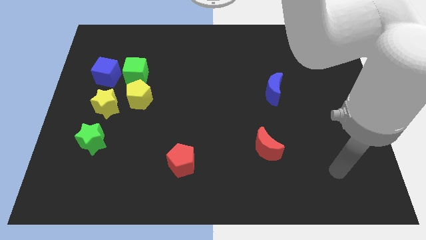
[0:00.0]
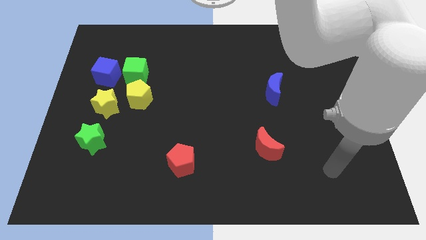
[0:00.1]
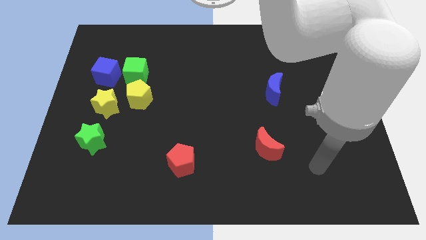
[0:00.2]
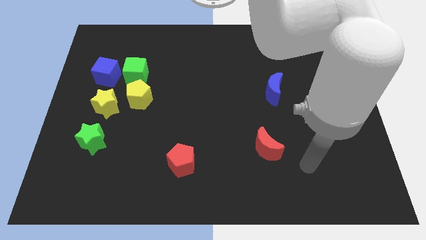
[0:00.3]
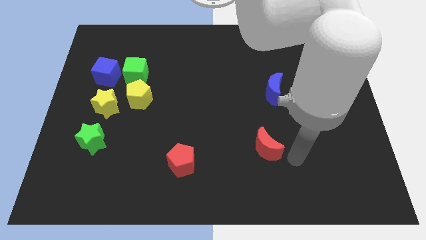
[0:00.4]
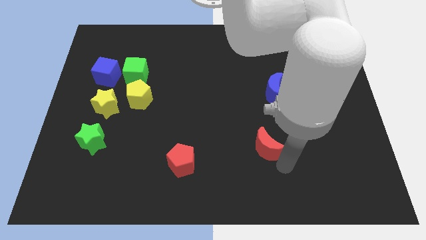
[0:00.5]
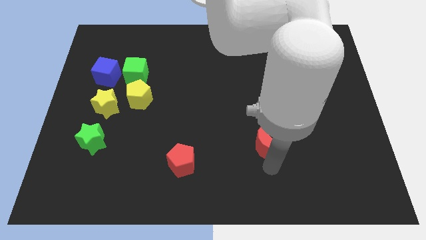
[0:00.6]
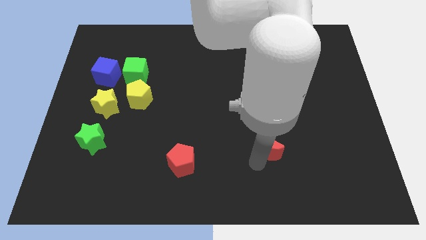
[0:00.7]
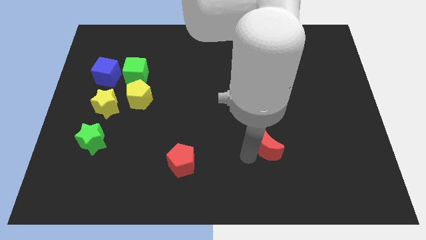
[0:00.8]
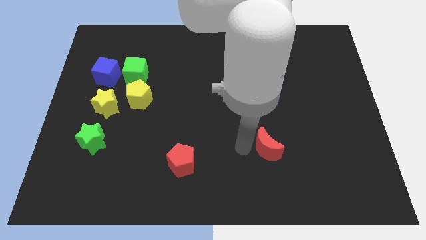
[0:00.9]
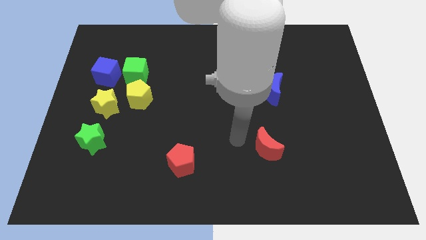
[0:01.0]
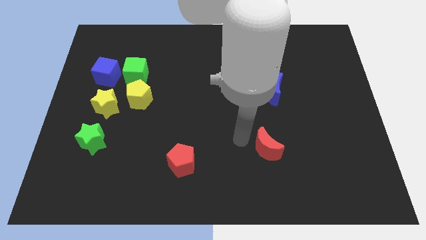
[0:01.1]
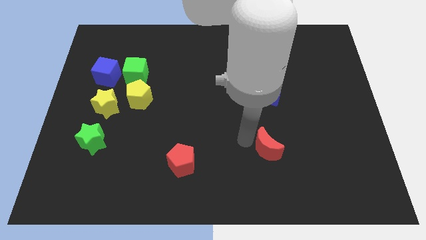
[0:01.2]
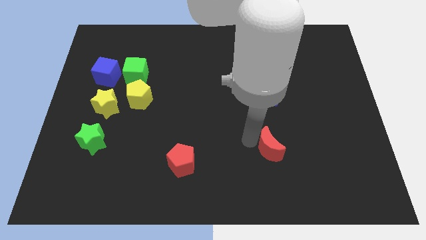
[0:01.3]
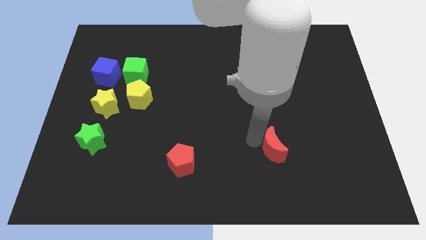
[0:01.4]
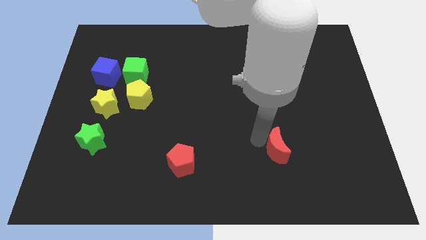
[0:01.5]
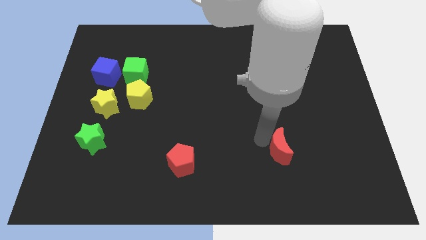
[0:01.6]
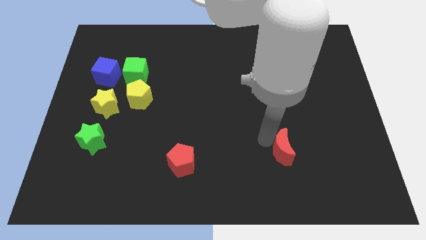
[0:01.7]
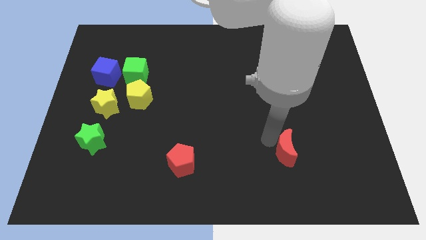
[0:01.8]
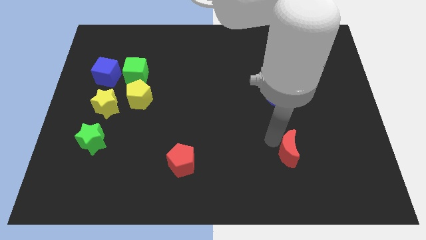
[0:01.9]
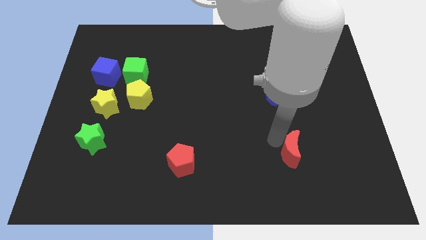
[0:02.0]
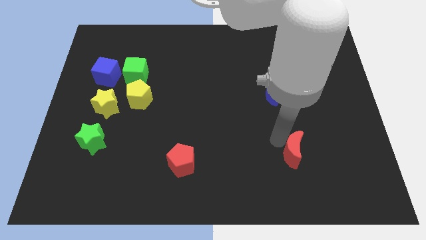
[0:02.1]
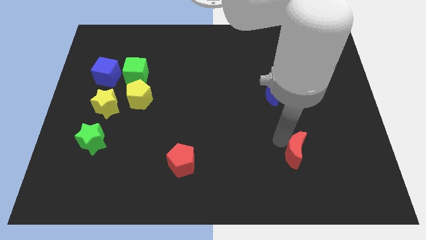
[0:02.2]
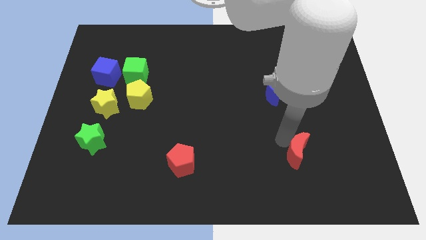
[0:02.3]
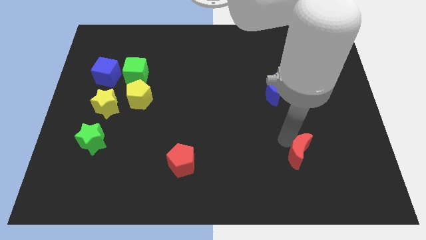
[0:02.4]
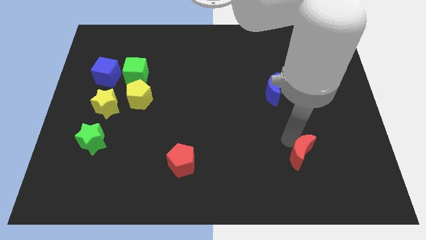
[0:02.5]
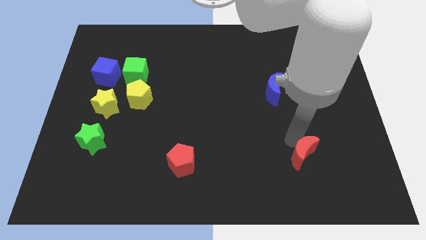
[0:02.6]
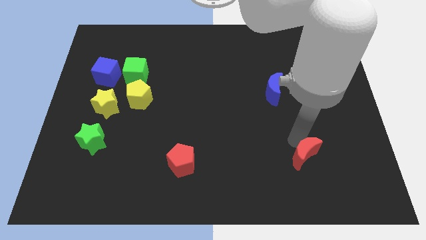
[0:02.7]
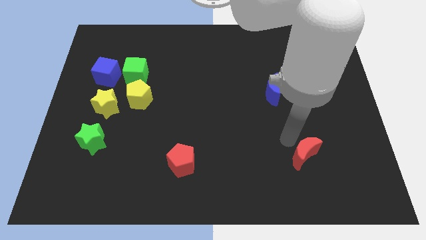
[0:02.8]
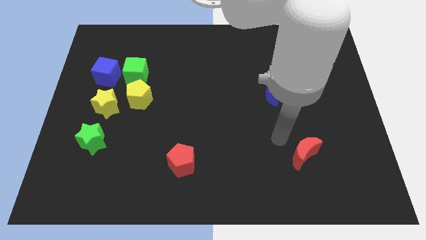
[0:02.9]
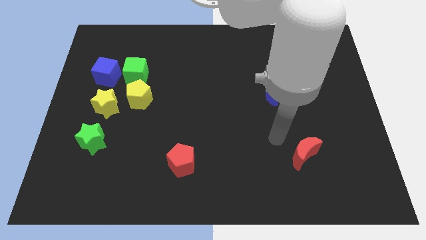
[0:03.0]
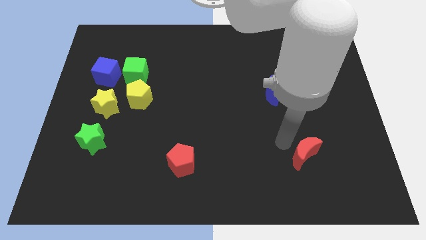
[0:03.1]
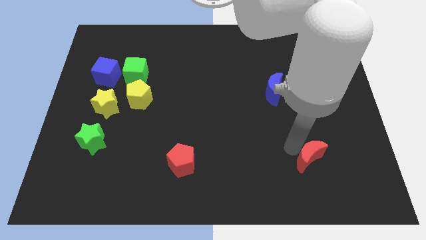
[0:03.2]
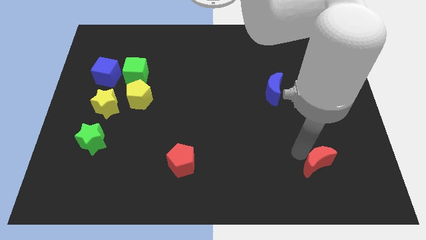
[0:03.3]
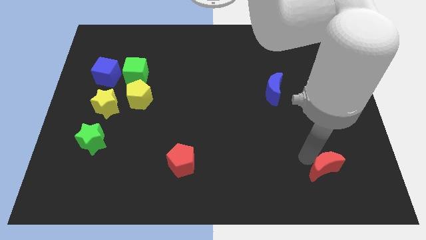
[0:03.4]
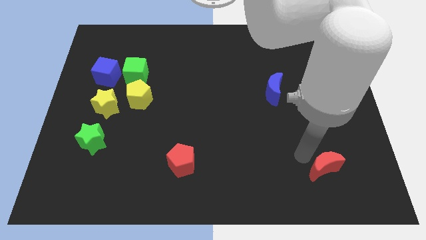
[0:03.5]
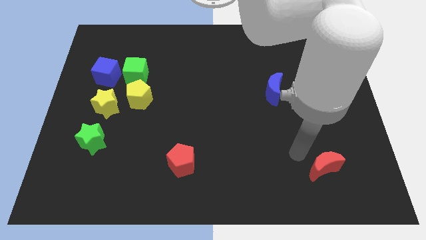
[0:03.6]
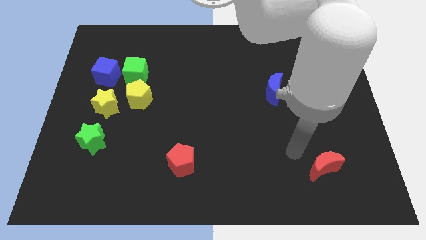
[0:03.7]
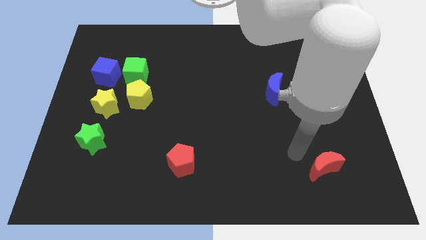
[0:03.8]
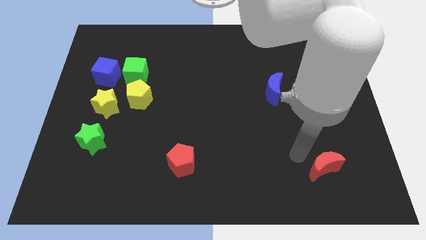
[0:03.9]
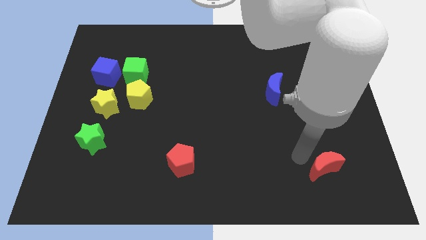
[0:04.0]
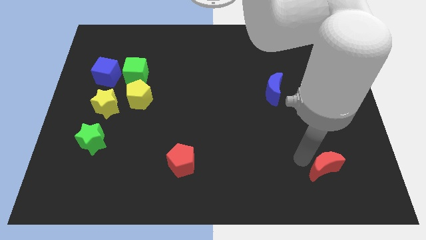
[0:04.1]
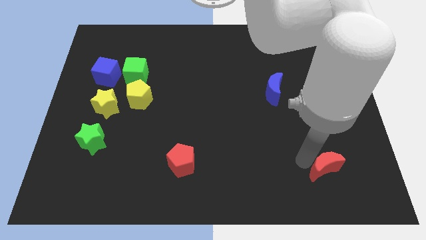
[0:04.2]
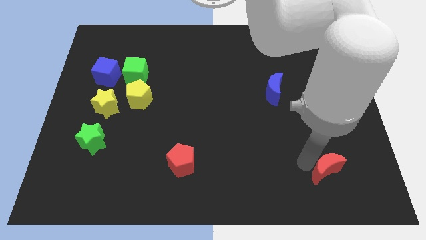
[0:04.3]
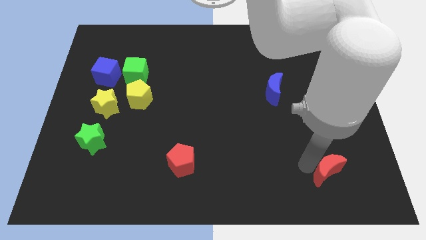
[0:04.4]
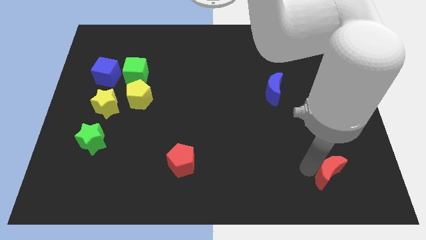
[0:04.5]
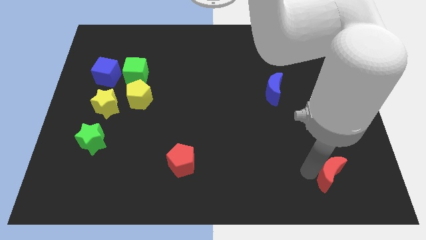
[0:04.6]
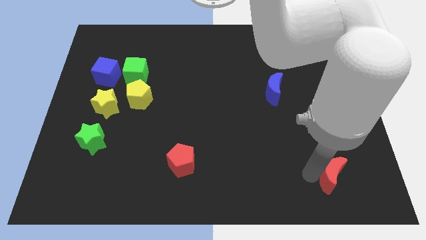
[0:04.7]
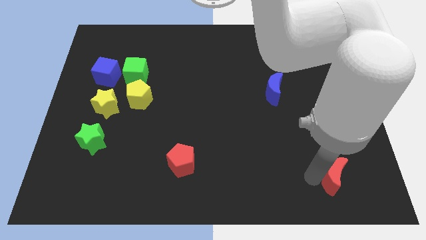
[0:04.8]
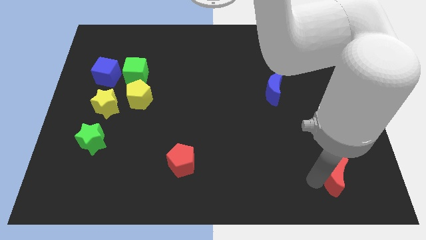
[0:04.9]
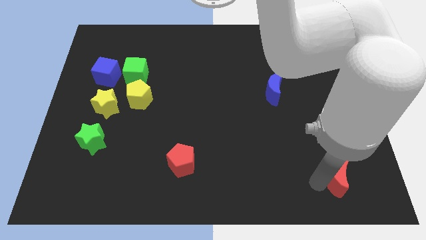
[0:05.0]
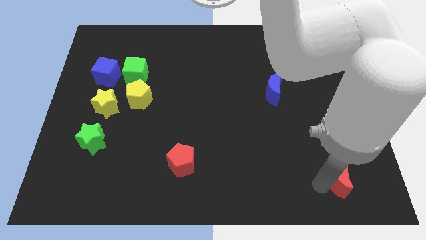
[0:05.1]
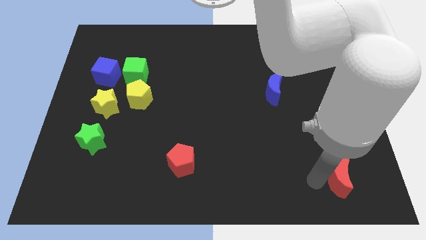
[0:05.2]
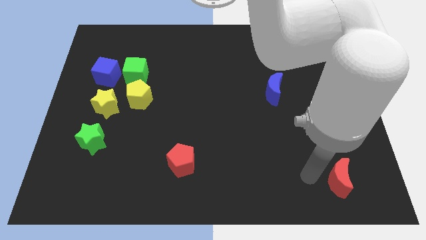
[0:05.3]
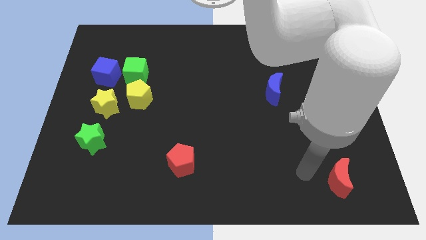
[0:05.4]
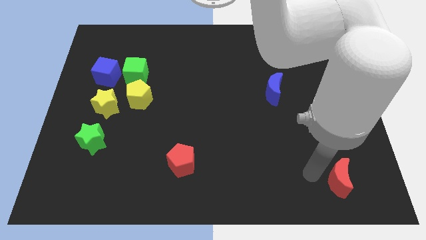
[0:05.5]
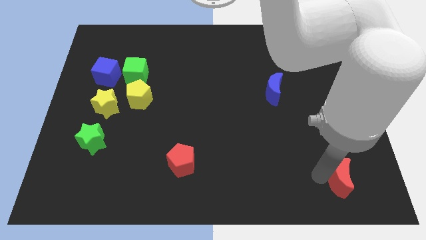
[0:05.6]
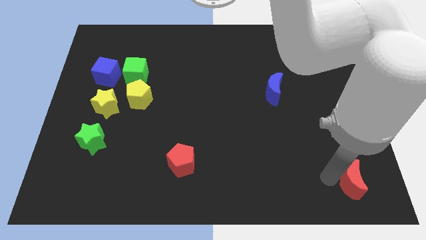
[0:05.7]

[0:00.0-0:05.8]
put the red moon to the bottom right

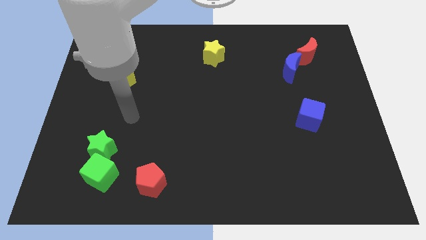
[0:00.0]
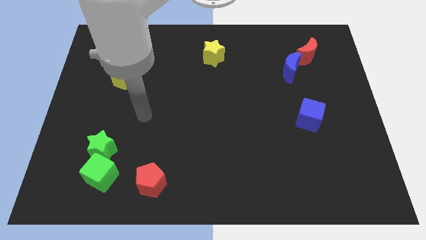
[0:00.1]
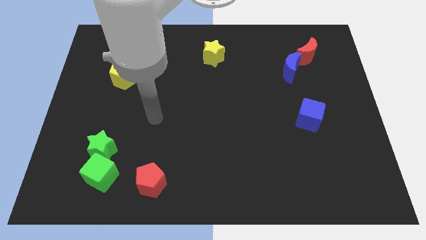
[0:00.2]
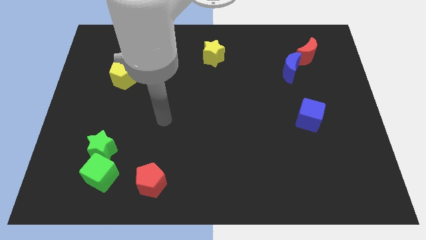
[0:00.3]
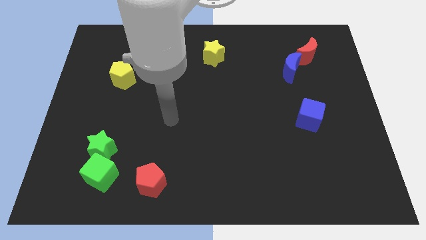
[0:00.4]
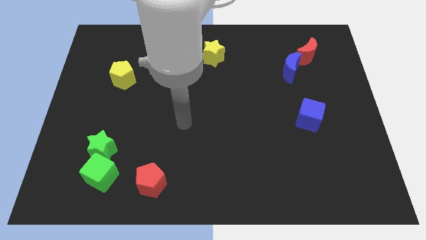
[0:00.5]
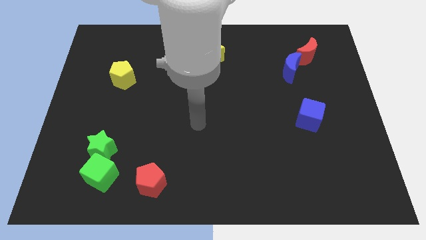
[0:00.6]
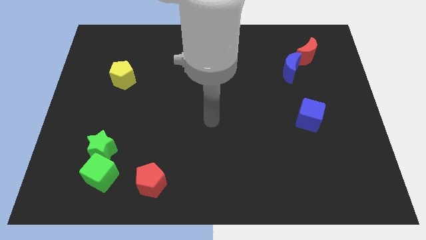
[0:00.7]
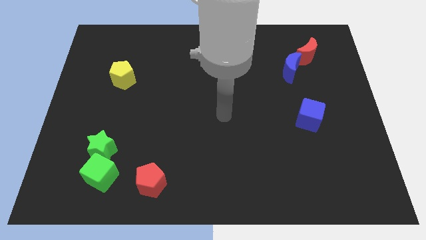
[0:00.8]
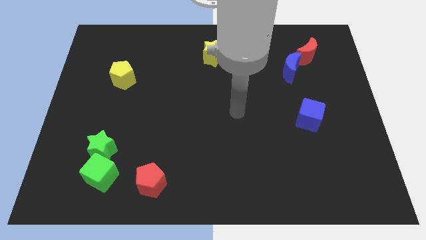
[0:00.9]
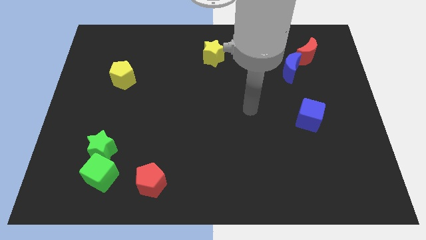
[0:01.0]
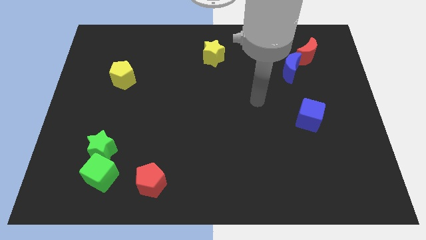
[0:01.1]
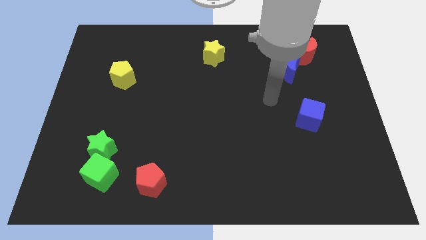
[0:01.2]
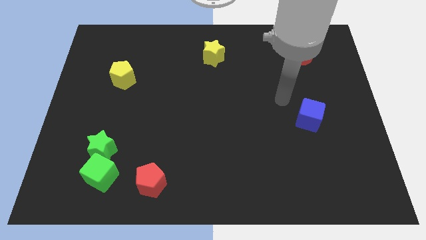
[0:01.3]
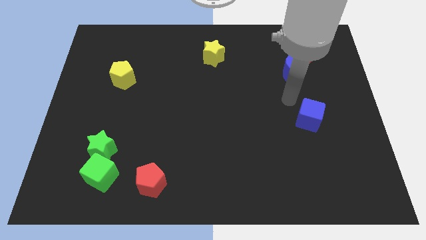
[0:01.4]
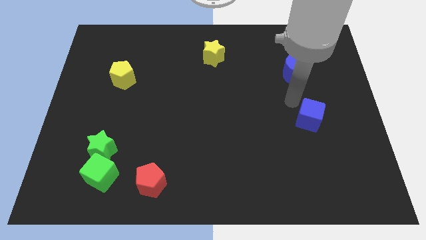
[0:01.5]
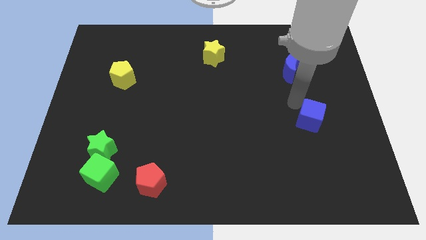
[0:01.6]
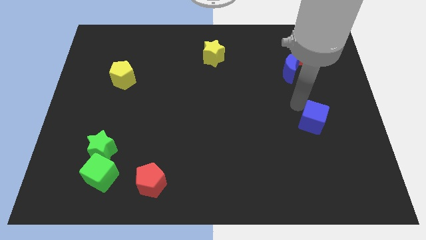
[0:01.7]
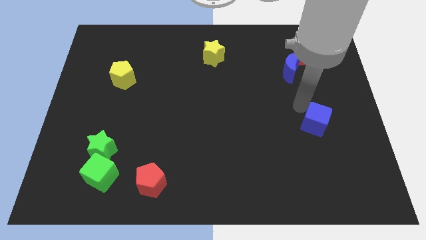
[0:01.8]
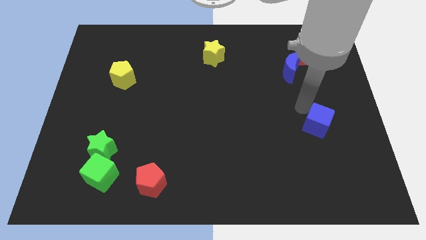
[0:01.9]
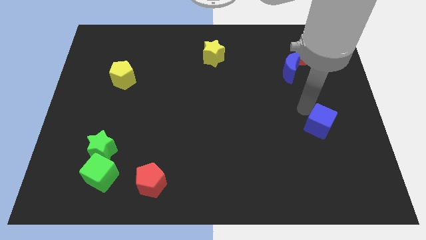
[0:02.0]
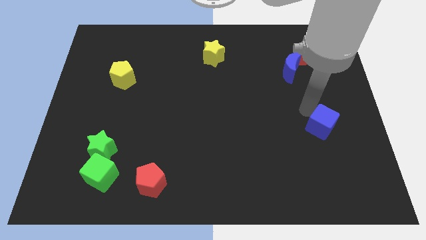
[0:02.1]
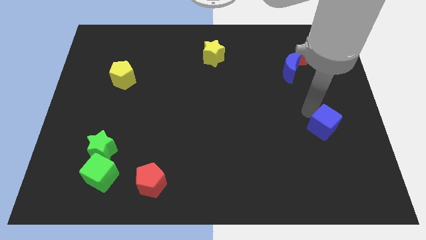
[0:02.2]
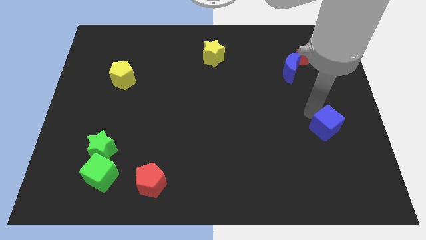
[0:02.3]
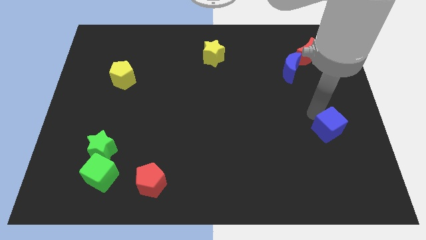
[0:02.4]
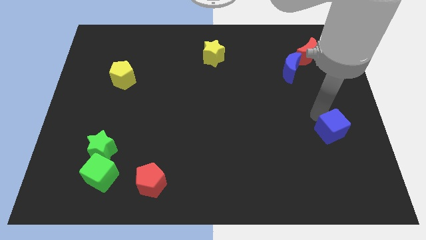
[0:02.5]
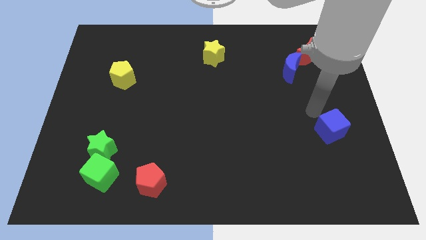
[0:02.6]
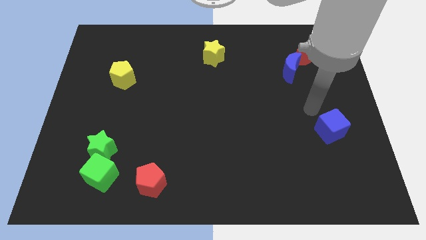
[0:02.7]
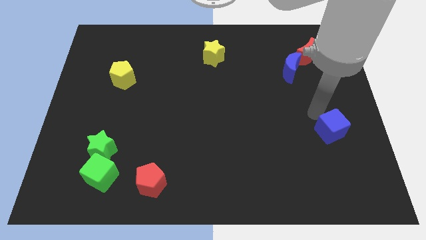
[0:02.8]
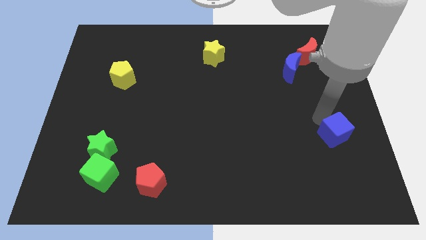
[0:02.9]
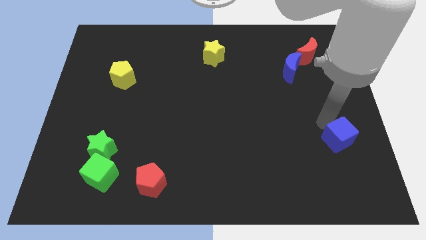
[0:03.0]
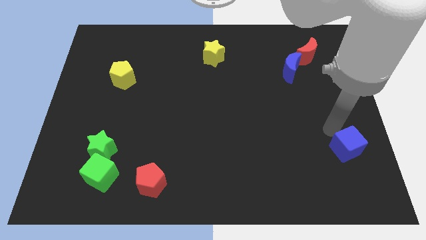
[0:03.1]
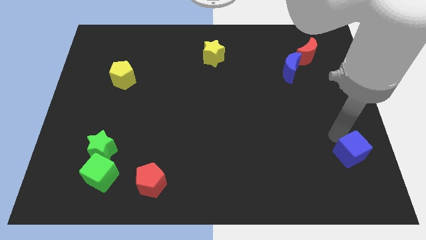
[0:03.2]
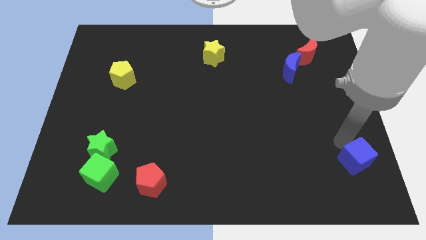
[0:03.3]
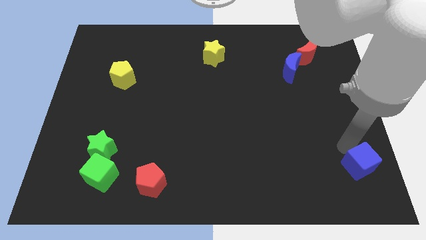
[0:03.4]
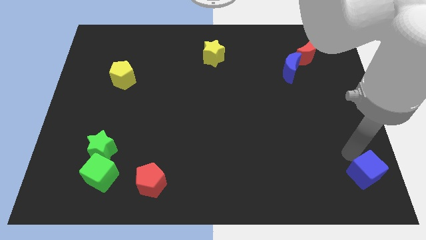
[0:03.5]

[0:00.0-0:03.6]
put the blue cube to the bottom right of the board
